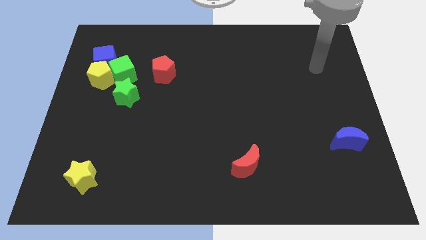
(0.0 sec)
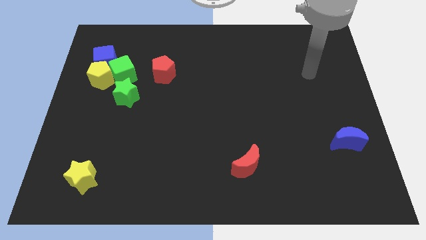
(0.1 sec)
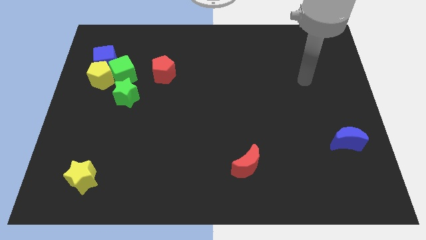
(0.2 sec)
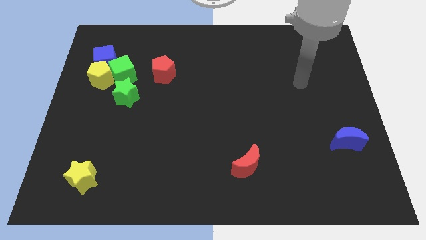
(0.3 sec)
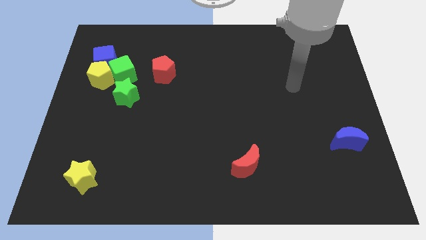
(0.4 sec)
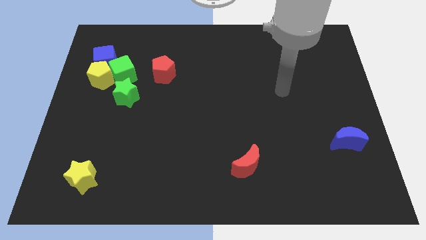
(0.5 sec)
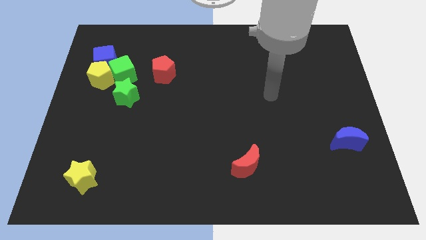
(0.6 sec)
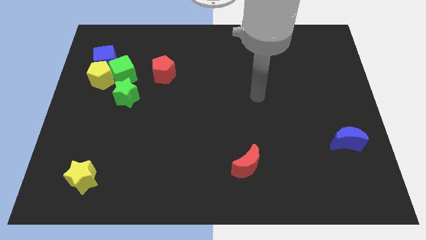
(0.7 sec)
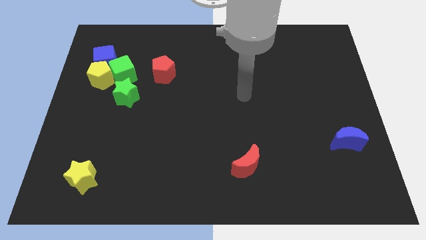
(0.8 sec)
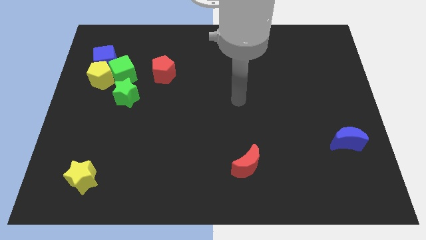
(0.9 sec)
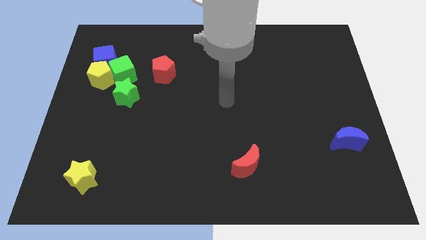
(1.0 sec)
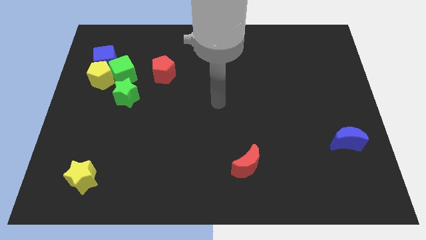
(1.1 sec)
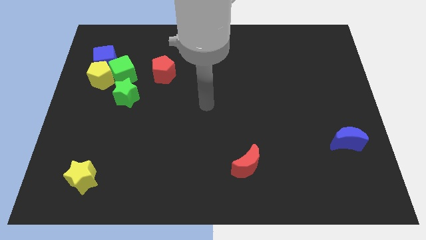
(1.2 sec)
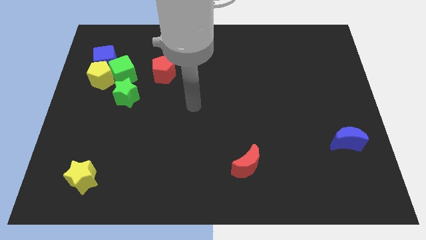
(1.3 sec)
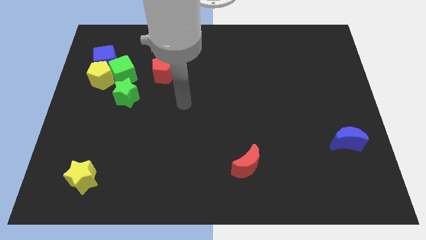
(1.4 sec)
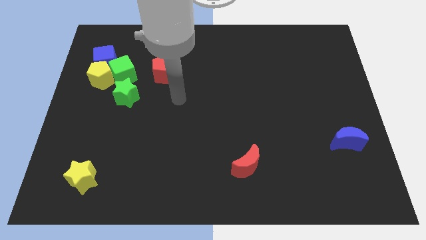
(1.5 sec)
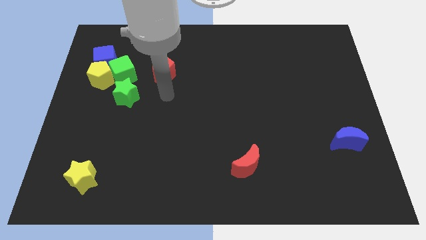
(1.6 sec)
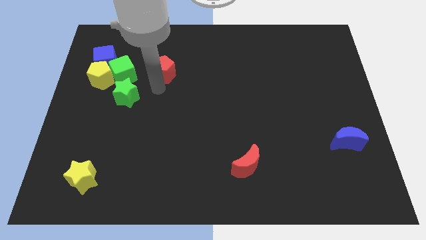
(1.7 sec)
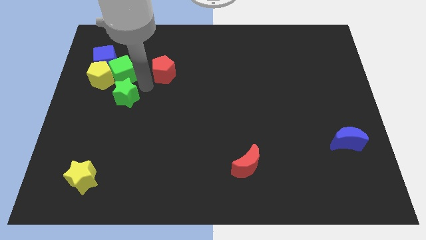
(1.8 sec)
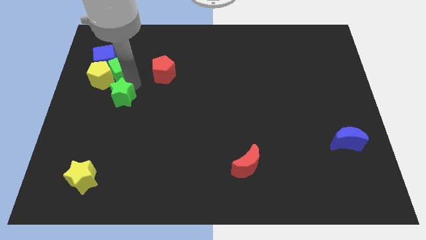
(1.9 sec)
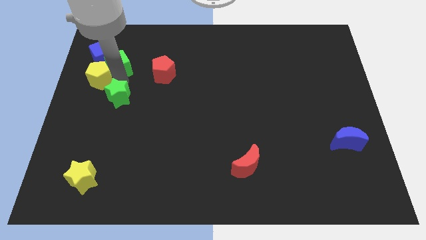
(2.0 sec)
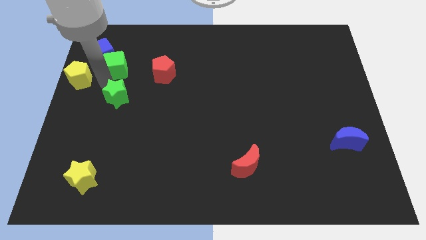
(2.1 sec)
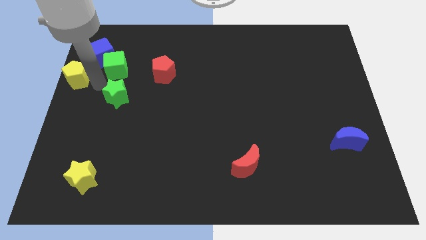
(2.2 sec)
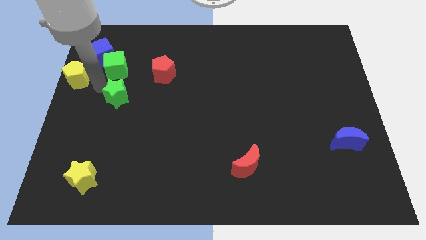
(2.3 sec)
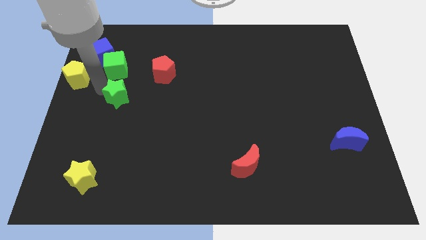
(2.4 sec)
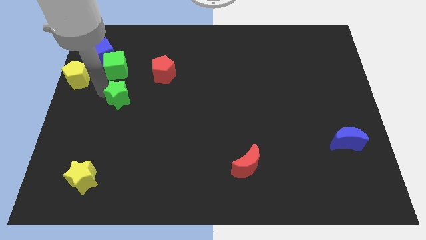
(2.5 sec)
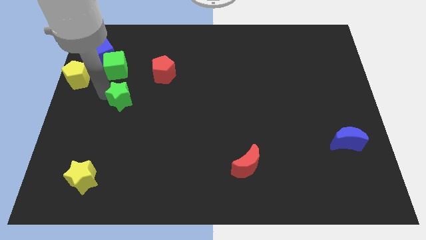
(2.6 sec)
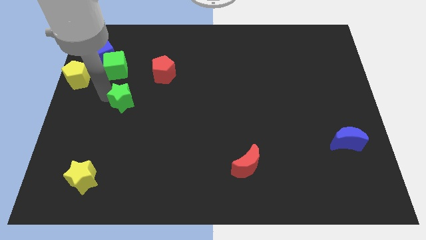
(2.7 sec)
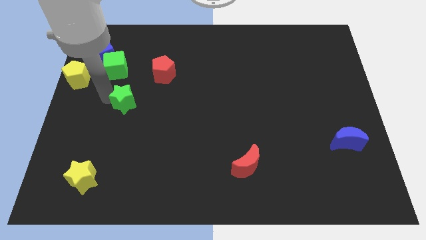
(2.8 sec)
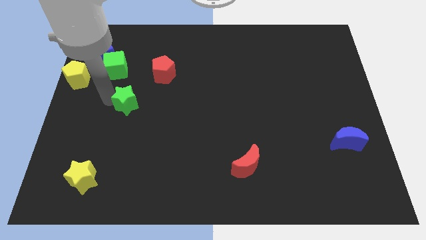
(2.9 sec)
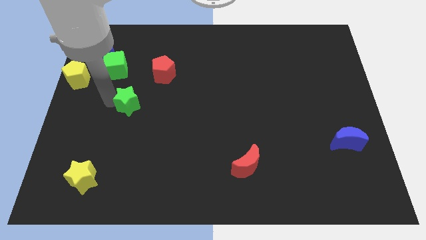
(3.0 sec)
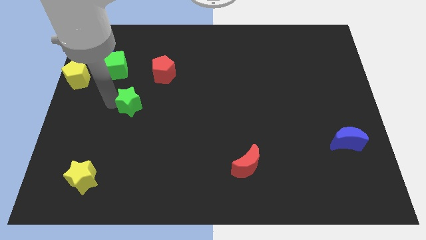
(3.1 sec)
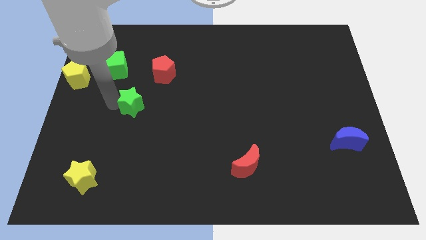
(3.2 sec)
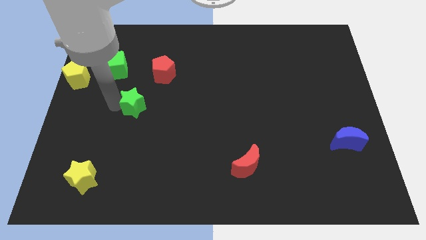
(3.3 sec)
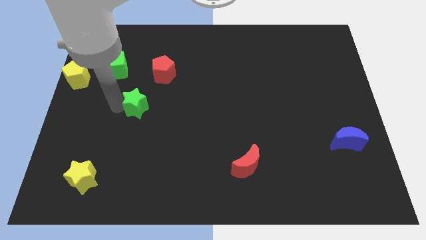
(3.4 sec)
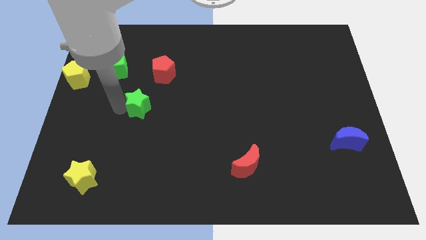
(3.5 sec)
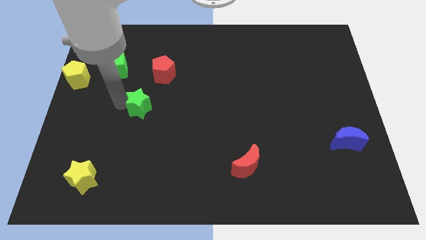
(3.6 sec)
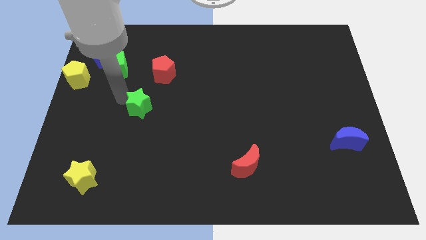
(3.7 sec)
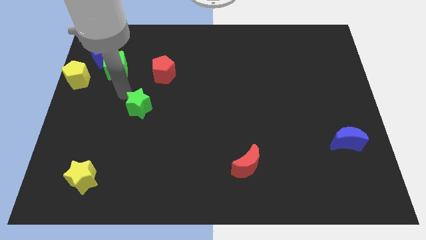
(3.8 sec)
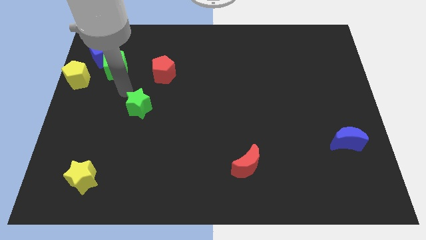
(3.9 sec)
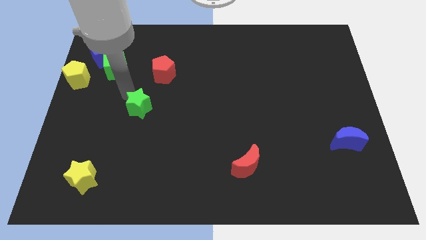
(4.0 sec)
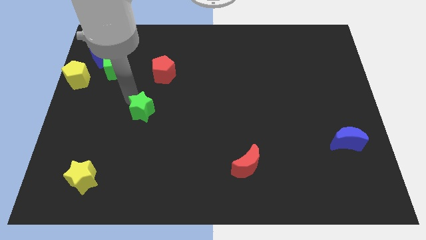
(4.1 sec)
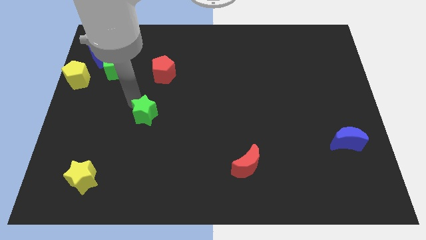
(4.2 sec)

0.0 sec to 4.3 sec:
push the green star downwards and right a little bit

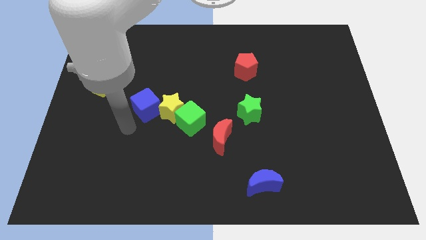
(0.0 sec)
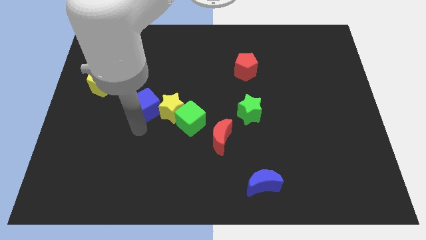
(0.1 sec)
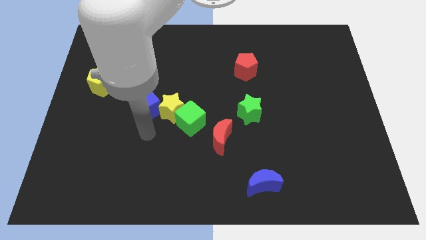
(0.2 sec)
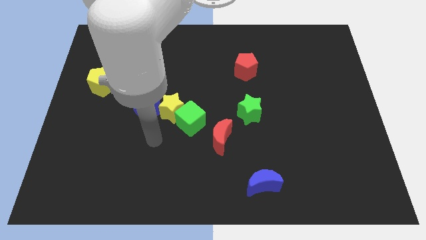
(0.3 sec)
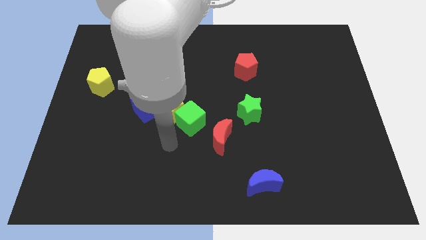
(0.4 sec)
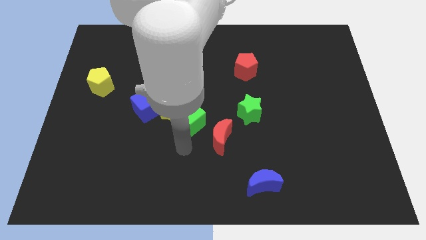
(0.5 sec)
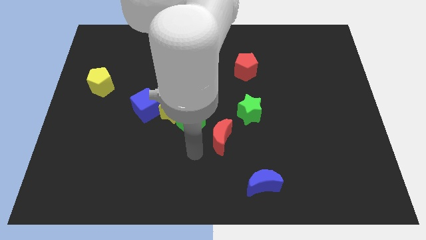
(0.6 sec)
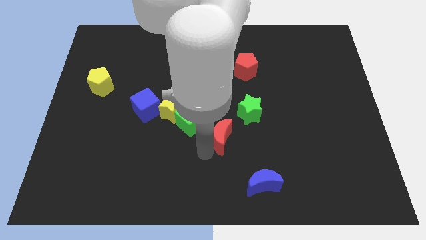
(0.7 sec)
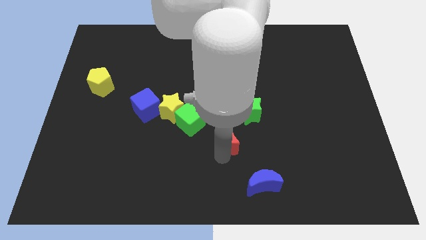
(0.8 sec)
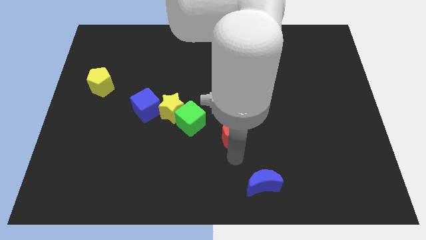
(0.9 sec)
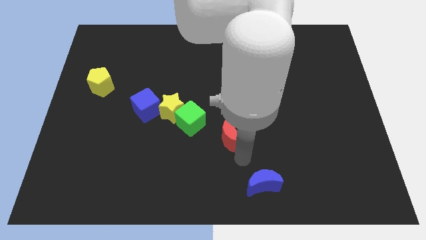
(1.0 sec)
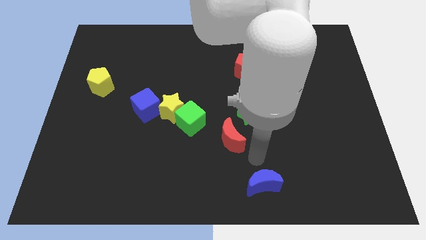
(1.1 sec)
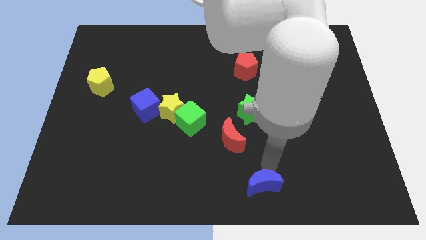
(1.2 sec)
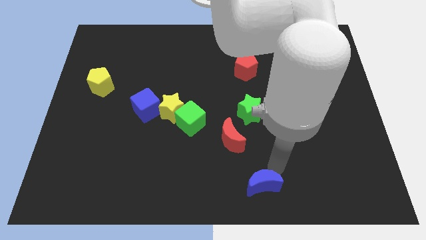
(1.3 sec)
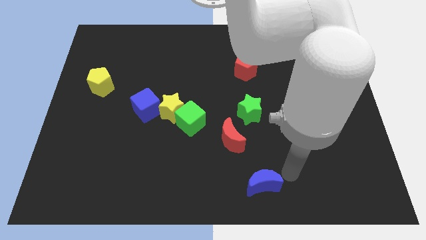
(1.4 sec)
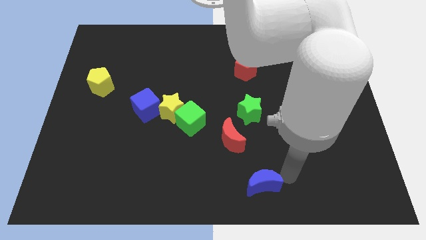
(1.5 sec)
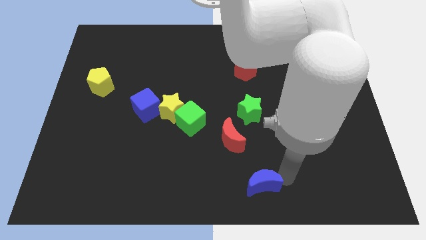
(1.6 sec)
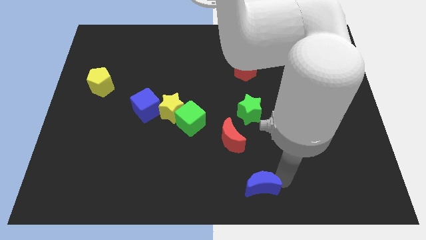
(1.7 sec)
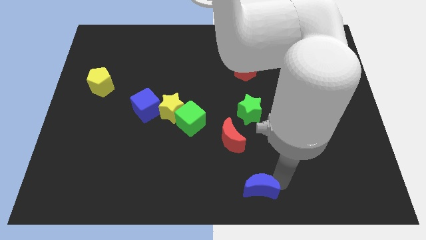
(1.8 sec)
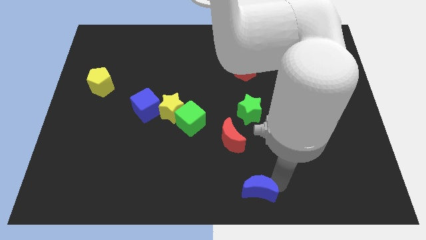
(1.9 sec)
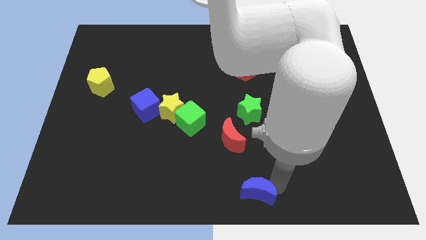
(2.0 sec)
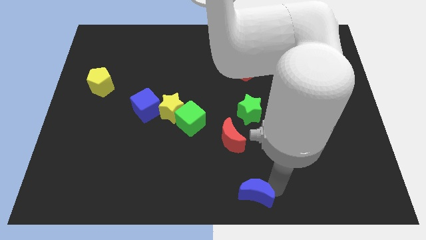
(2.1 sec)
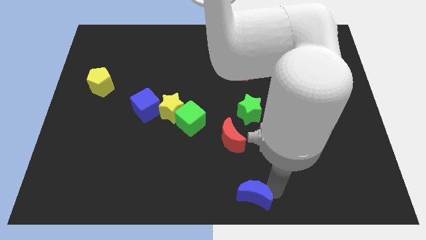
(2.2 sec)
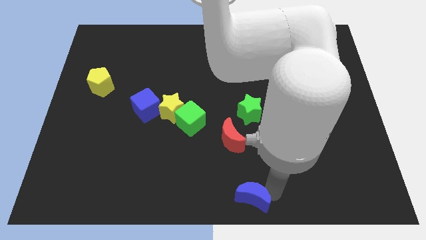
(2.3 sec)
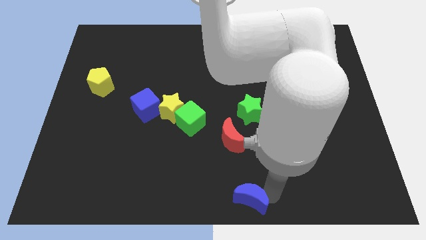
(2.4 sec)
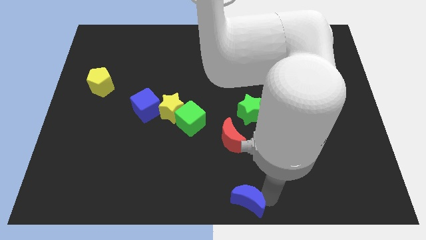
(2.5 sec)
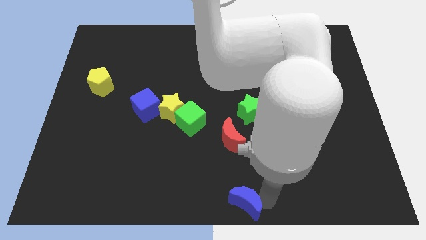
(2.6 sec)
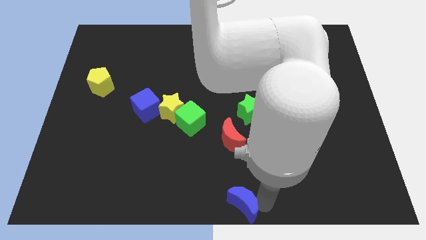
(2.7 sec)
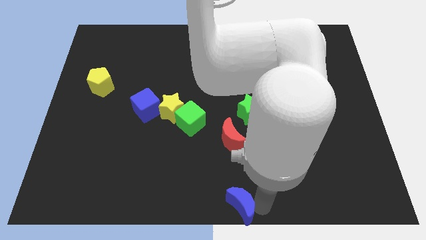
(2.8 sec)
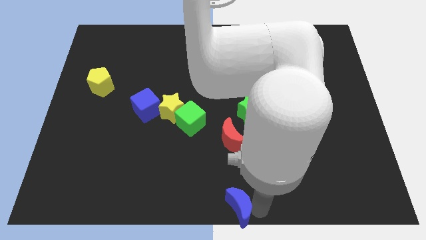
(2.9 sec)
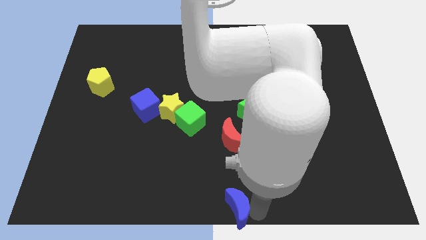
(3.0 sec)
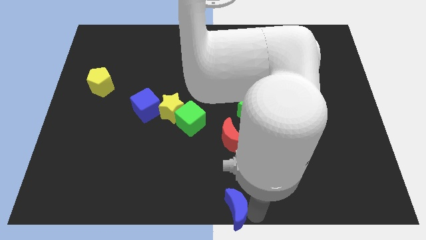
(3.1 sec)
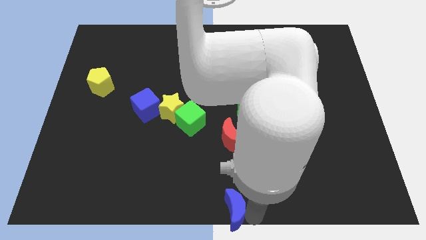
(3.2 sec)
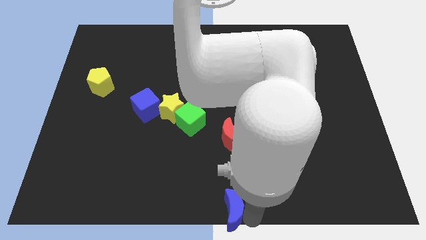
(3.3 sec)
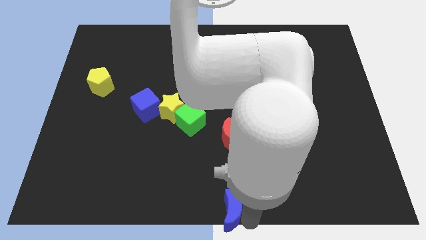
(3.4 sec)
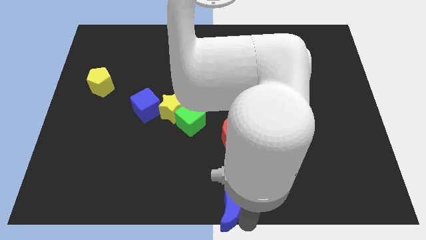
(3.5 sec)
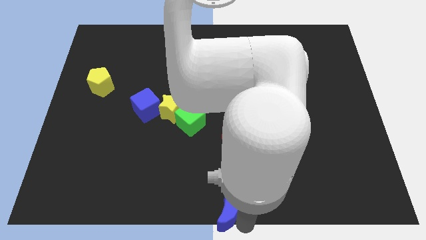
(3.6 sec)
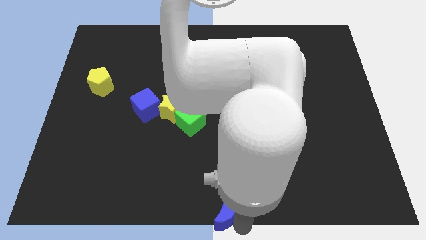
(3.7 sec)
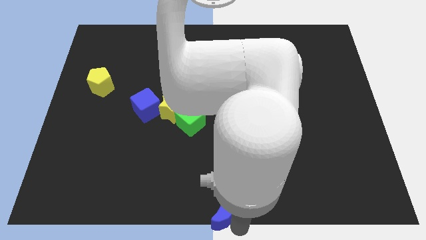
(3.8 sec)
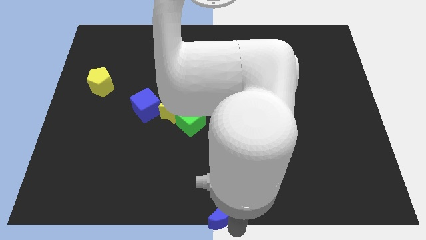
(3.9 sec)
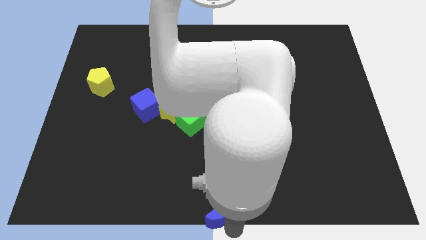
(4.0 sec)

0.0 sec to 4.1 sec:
move the blue moon to the left somewhat
